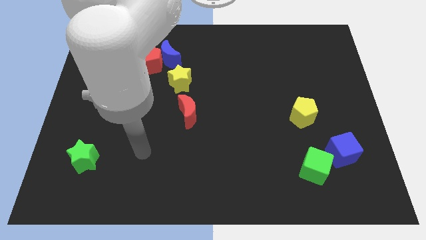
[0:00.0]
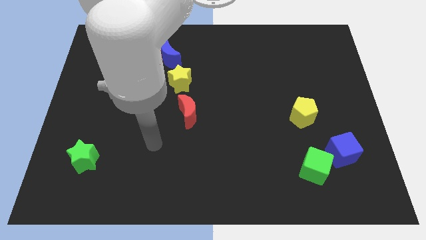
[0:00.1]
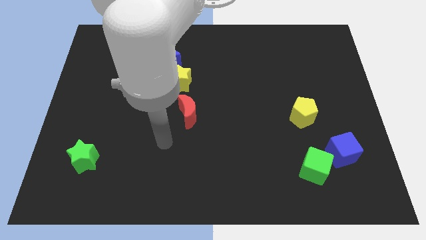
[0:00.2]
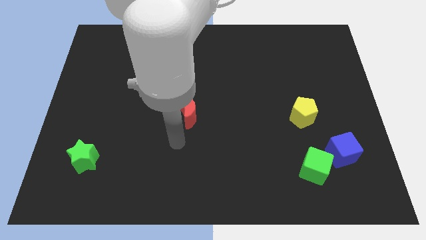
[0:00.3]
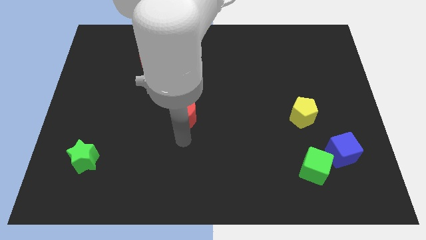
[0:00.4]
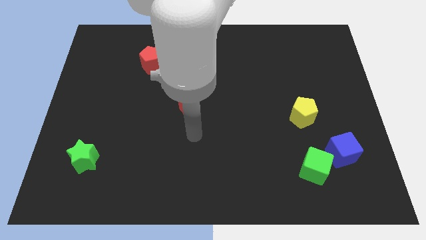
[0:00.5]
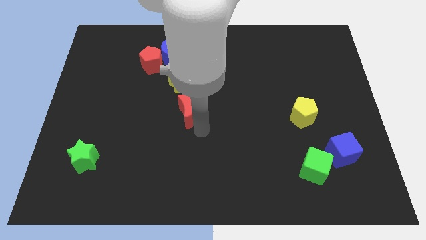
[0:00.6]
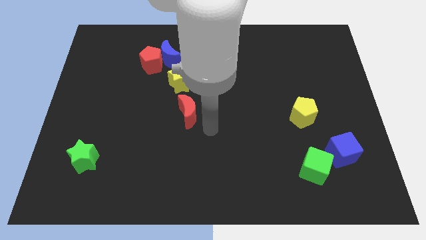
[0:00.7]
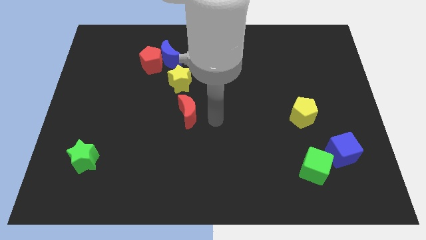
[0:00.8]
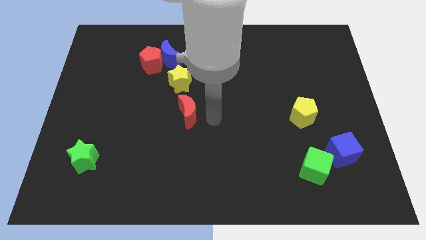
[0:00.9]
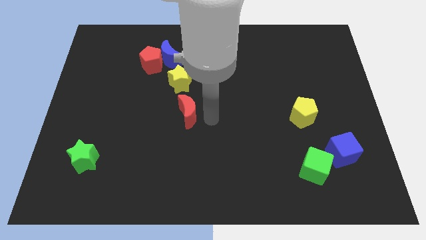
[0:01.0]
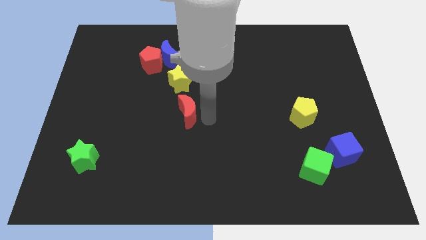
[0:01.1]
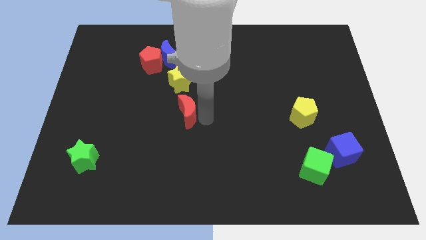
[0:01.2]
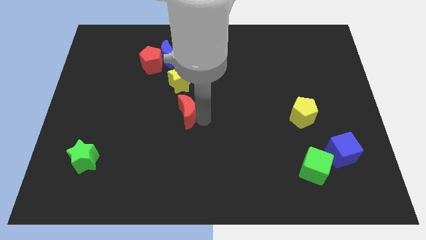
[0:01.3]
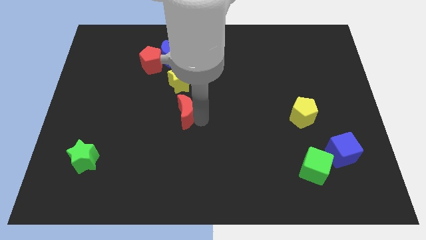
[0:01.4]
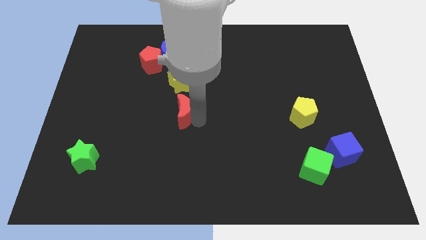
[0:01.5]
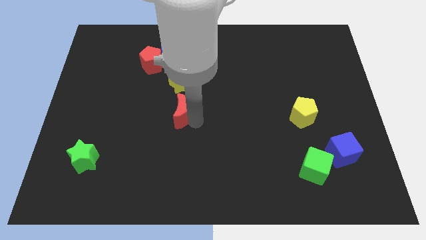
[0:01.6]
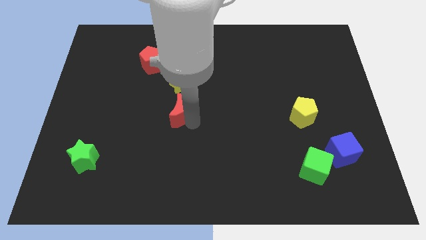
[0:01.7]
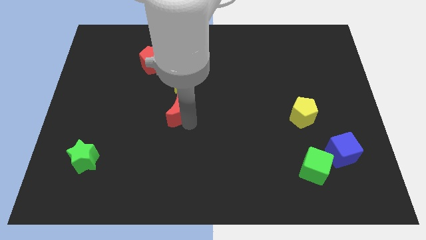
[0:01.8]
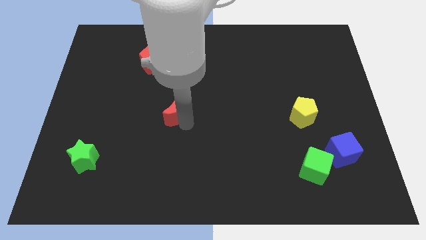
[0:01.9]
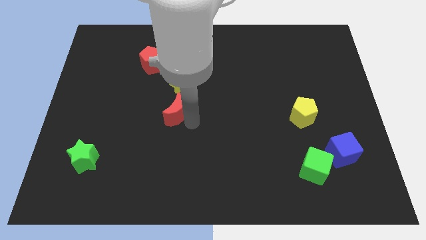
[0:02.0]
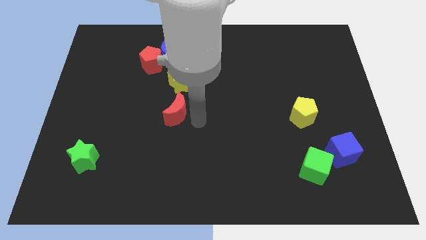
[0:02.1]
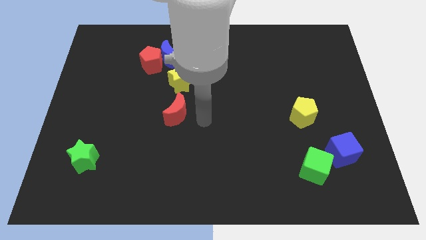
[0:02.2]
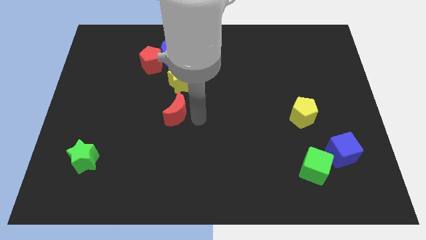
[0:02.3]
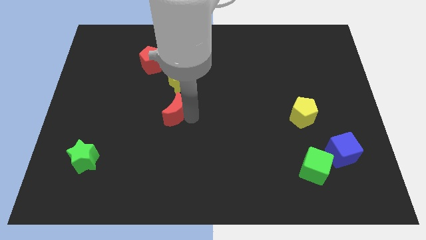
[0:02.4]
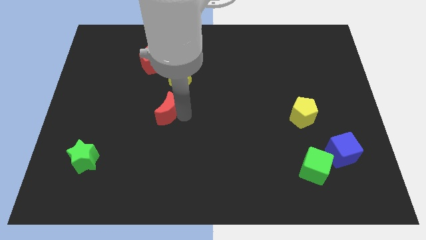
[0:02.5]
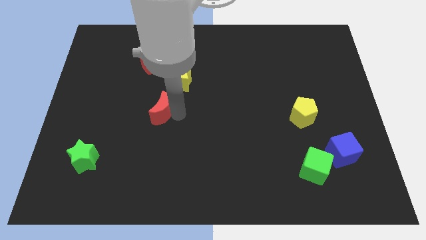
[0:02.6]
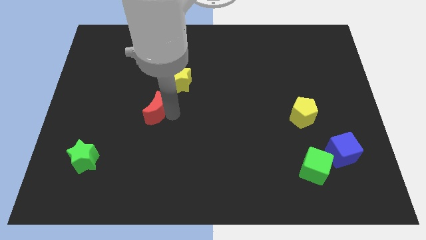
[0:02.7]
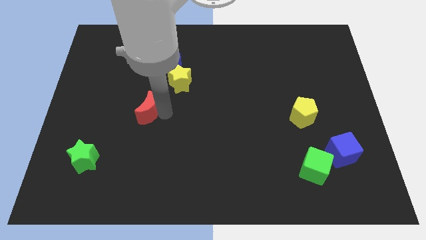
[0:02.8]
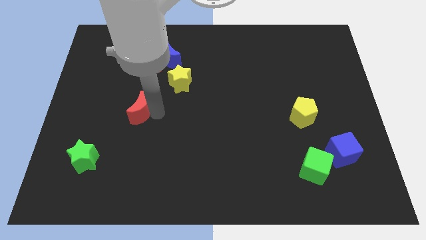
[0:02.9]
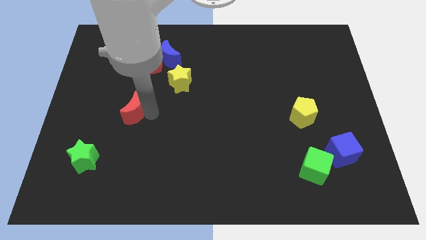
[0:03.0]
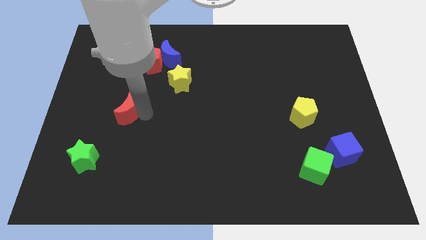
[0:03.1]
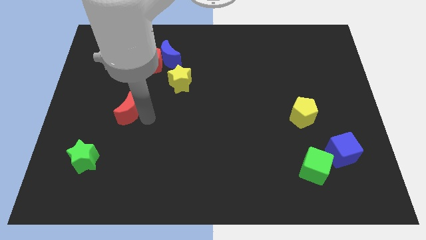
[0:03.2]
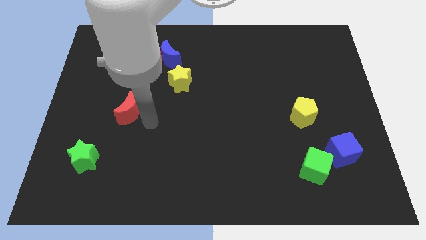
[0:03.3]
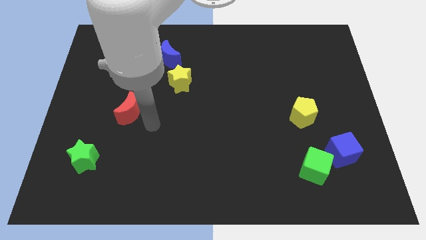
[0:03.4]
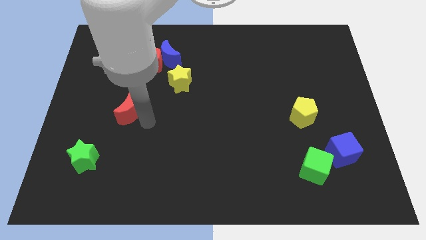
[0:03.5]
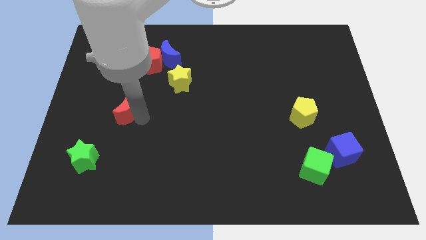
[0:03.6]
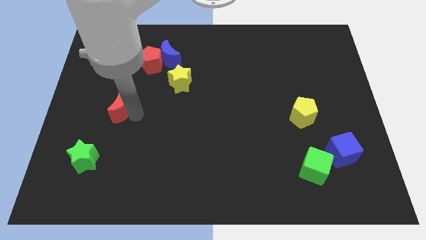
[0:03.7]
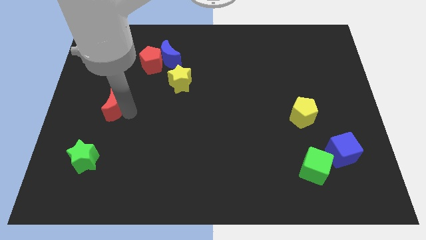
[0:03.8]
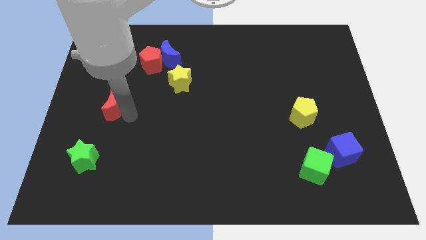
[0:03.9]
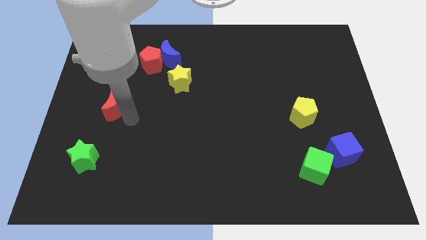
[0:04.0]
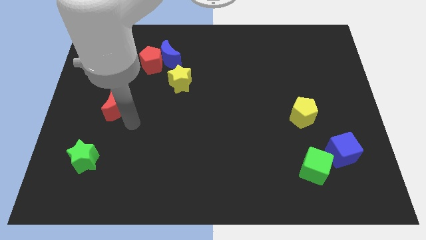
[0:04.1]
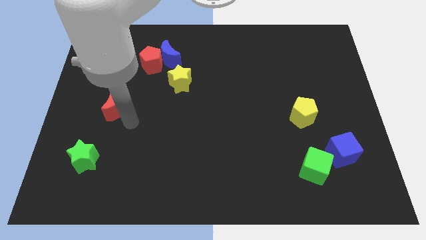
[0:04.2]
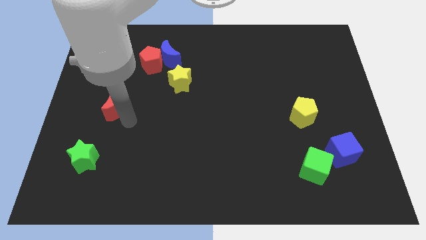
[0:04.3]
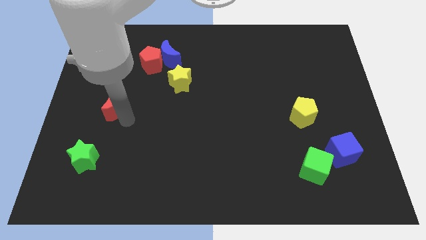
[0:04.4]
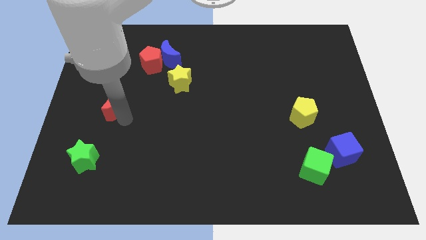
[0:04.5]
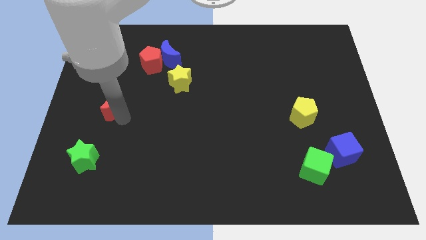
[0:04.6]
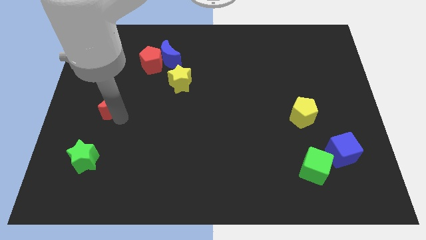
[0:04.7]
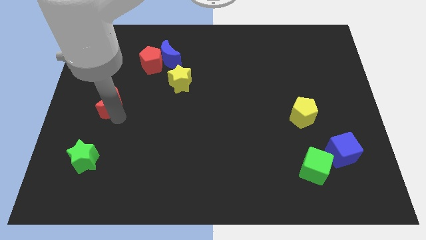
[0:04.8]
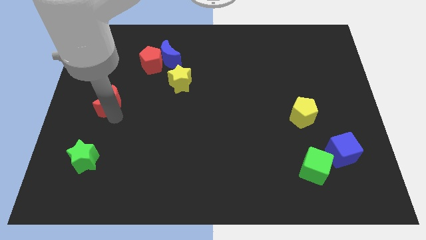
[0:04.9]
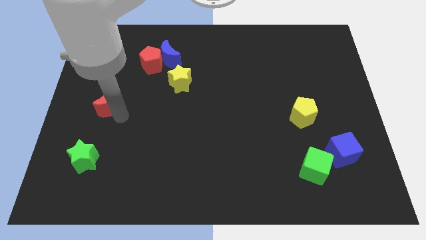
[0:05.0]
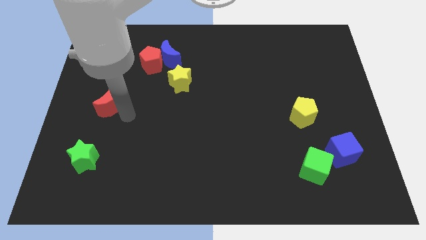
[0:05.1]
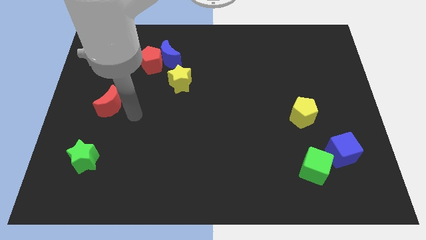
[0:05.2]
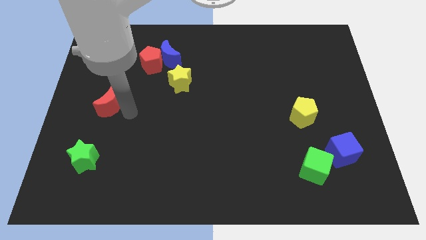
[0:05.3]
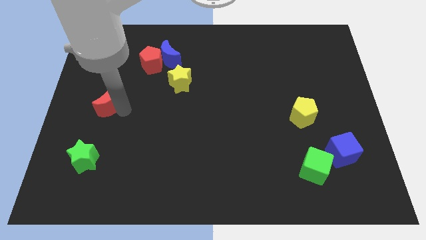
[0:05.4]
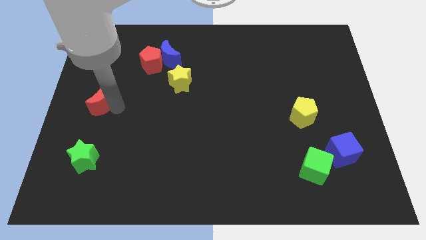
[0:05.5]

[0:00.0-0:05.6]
push the red moon to the center left
